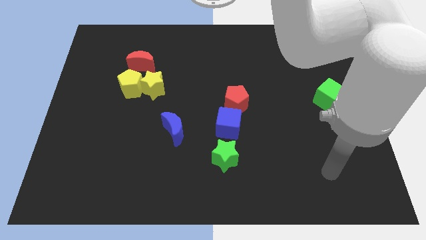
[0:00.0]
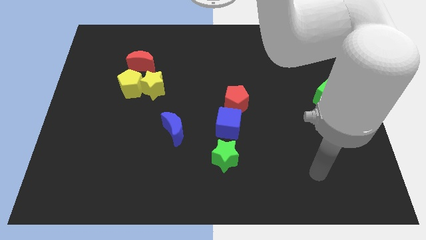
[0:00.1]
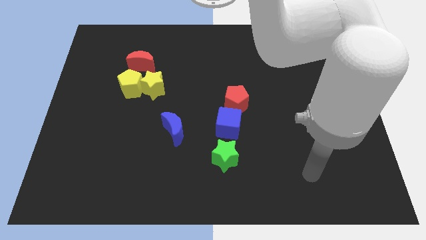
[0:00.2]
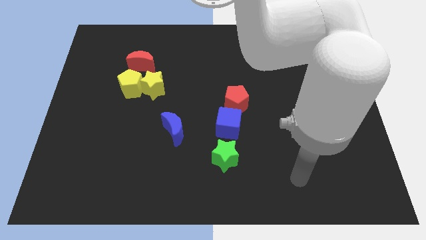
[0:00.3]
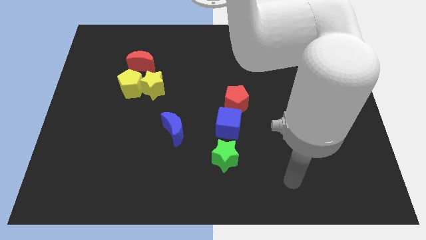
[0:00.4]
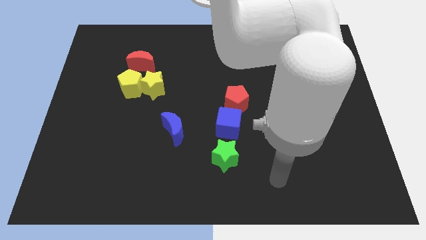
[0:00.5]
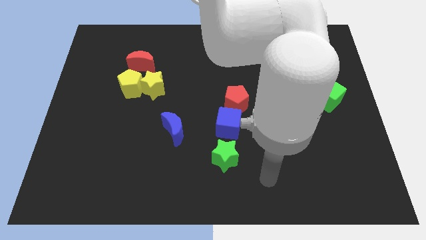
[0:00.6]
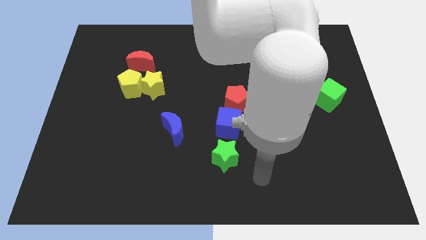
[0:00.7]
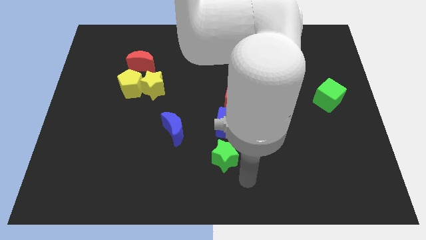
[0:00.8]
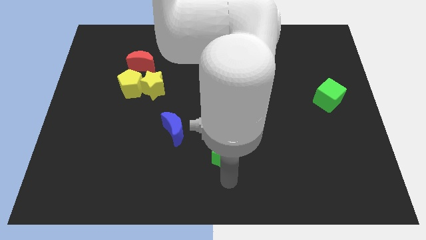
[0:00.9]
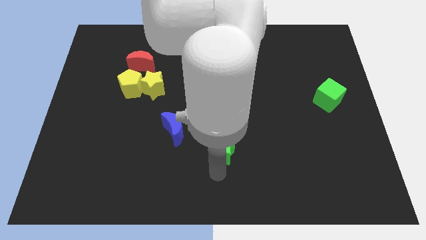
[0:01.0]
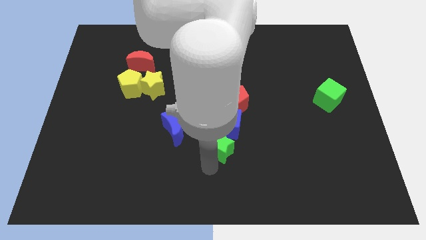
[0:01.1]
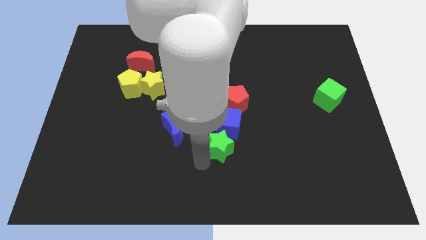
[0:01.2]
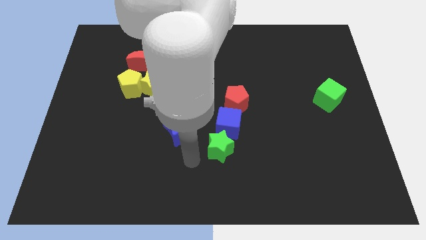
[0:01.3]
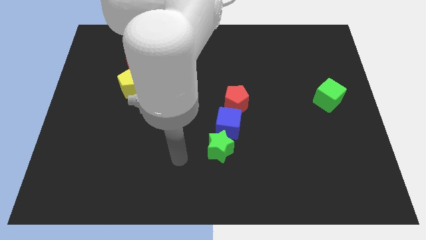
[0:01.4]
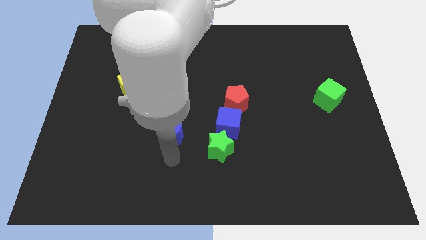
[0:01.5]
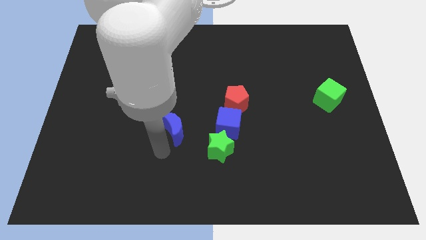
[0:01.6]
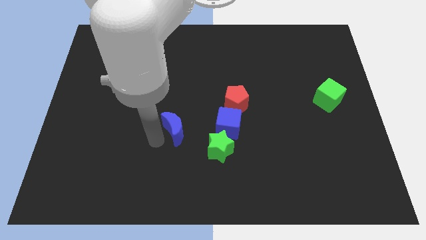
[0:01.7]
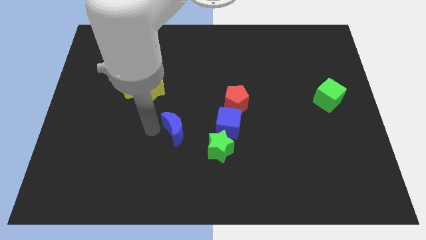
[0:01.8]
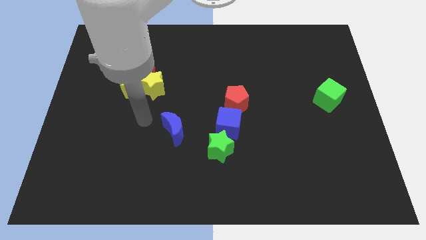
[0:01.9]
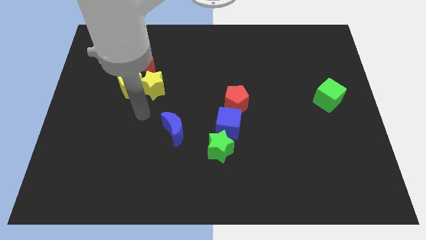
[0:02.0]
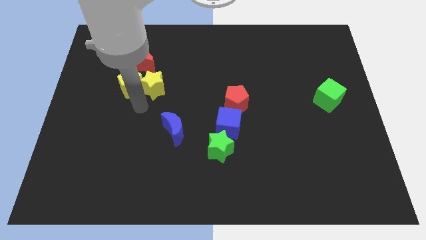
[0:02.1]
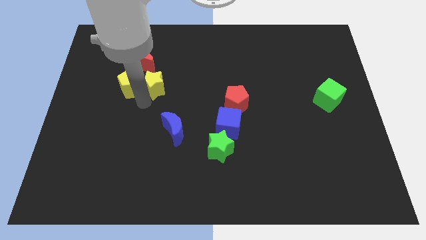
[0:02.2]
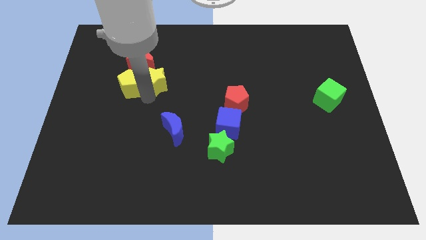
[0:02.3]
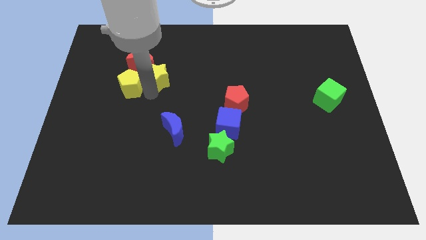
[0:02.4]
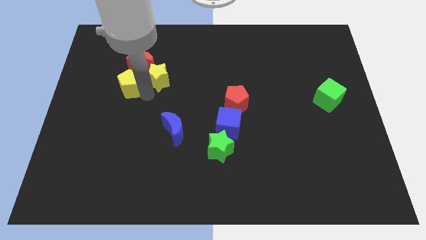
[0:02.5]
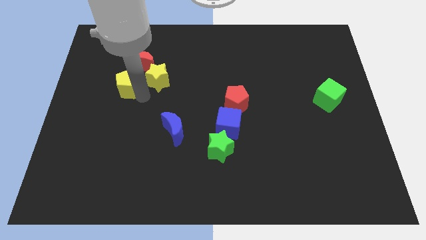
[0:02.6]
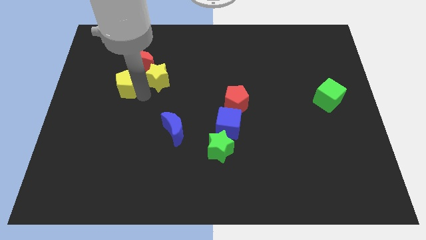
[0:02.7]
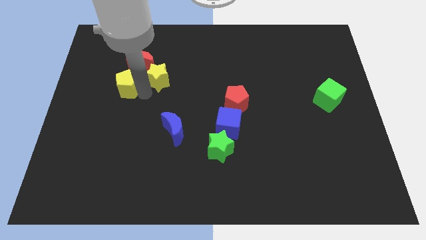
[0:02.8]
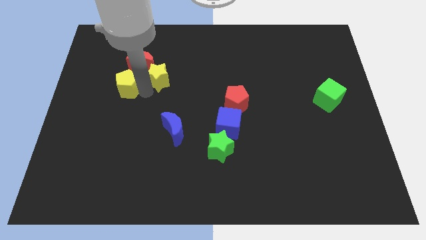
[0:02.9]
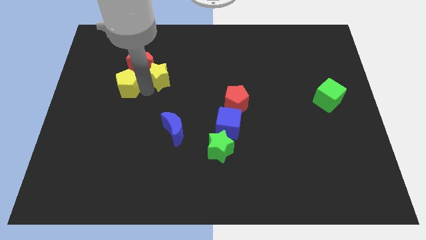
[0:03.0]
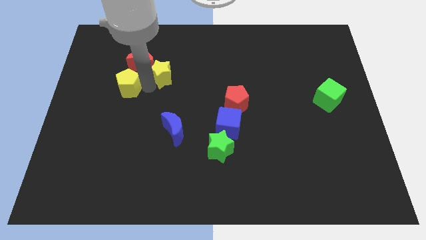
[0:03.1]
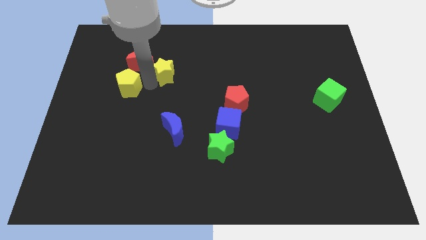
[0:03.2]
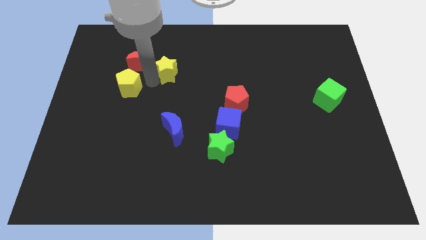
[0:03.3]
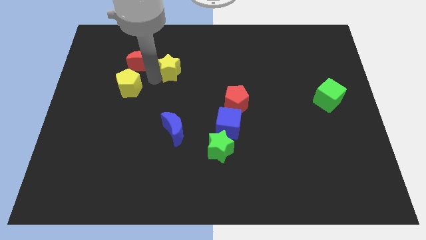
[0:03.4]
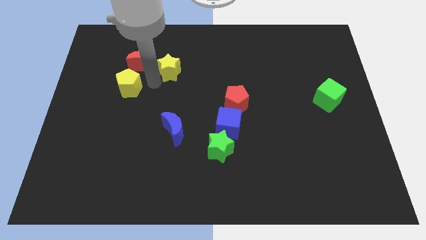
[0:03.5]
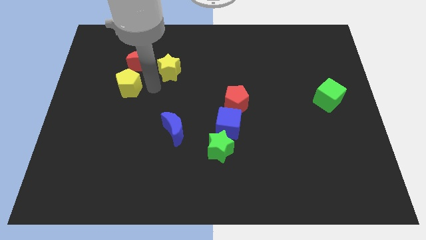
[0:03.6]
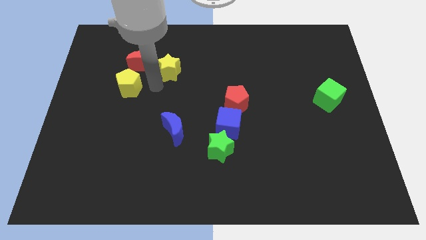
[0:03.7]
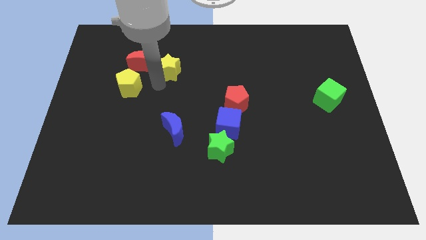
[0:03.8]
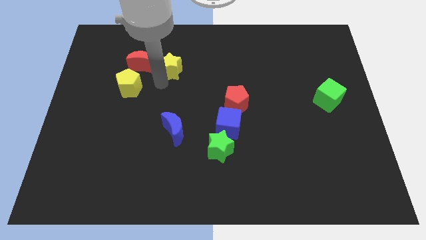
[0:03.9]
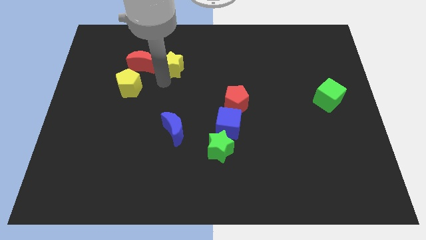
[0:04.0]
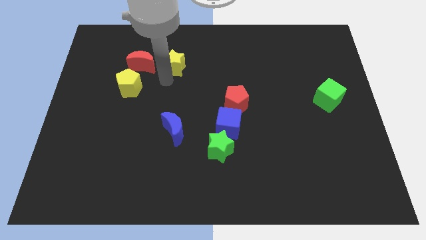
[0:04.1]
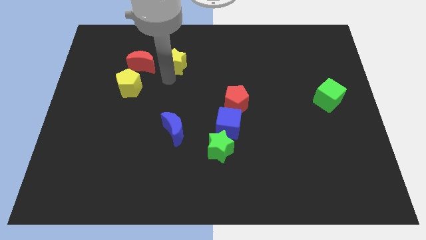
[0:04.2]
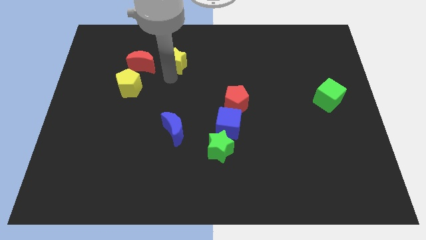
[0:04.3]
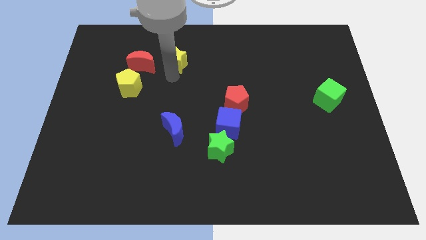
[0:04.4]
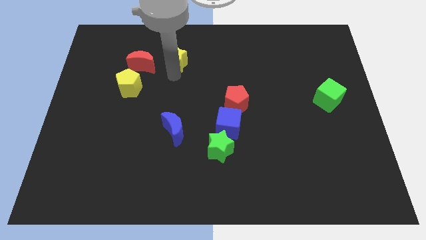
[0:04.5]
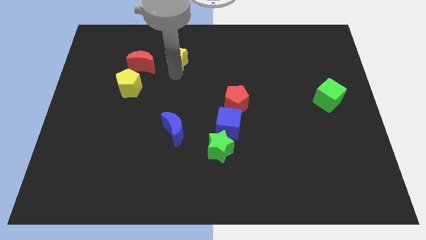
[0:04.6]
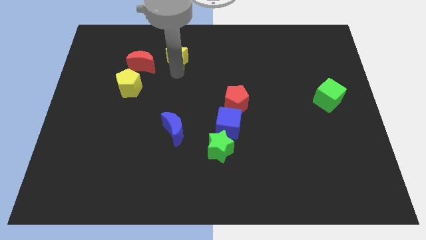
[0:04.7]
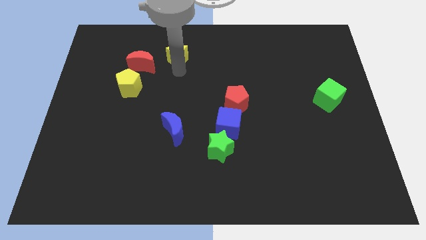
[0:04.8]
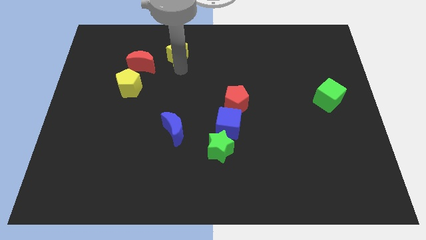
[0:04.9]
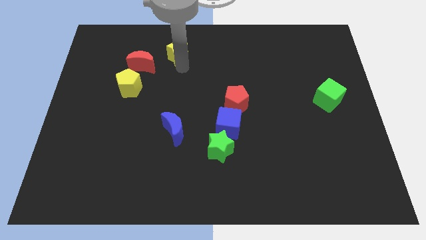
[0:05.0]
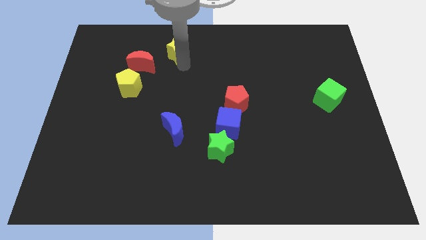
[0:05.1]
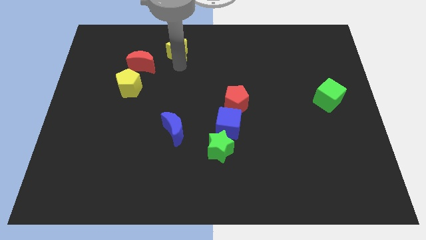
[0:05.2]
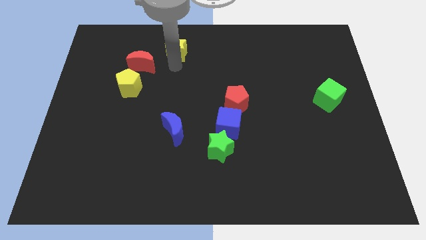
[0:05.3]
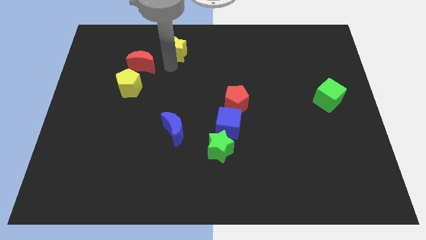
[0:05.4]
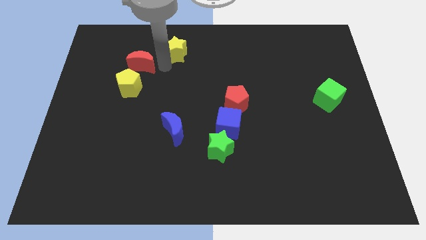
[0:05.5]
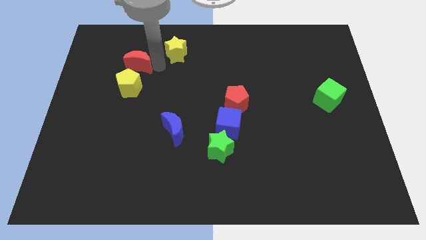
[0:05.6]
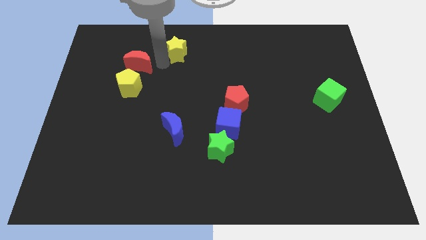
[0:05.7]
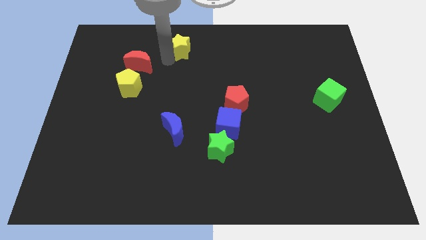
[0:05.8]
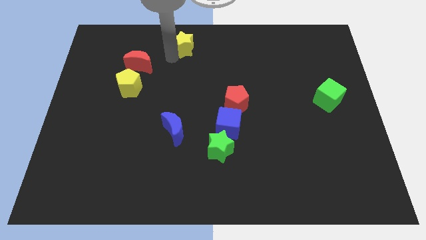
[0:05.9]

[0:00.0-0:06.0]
put the yellow star to the towards your base
